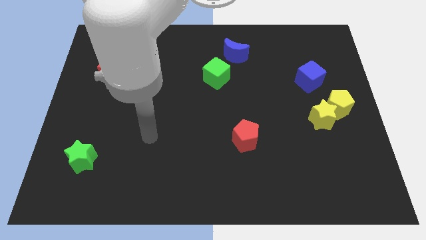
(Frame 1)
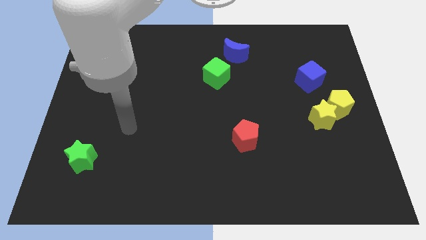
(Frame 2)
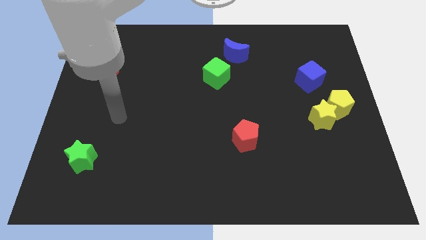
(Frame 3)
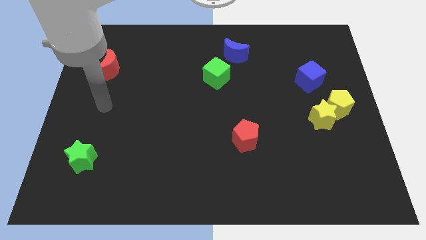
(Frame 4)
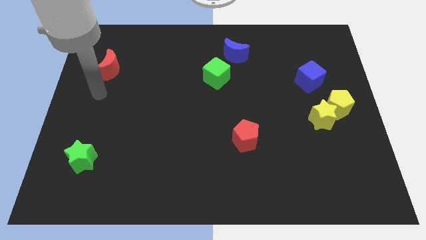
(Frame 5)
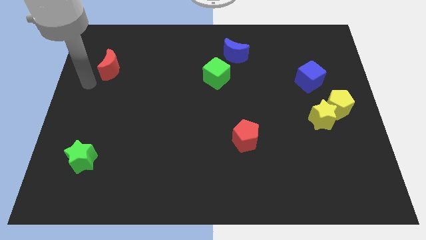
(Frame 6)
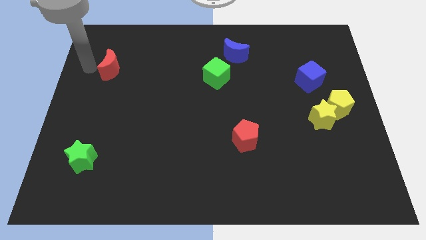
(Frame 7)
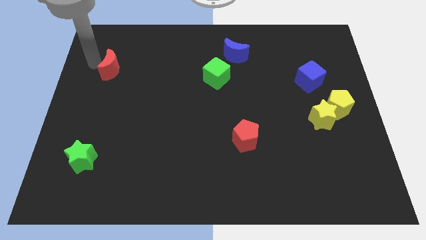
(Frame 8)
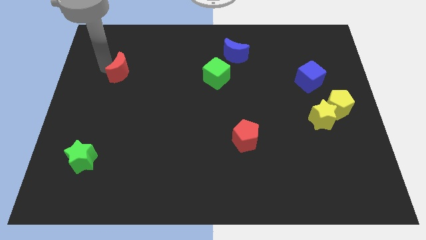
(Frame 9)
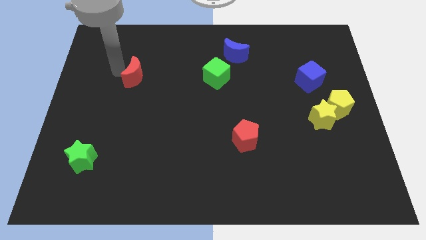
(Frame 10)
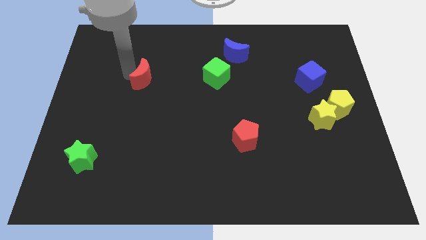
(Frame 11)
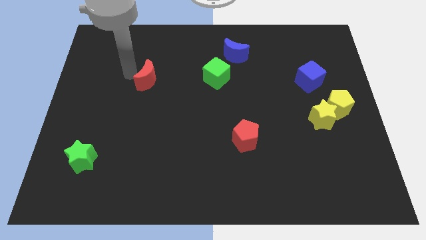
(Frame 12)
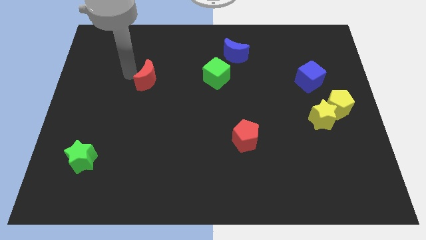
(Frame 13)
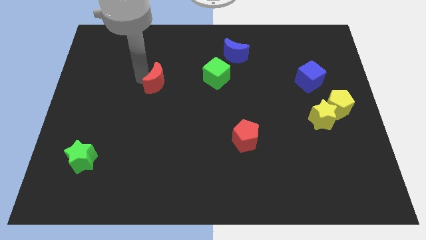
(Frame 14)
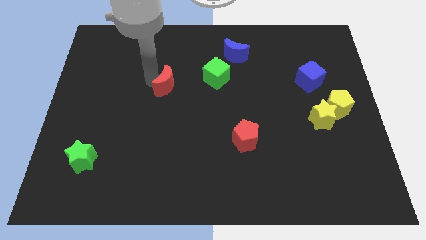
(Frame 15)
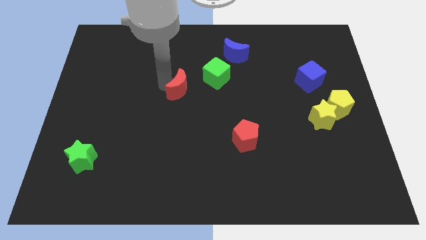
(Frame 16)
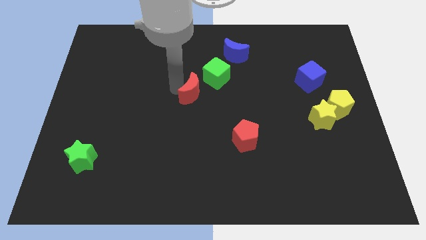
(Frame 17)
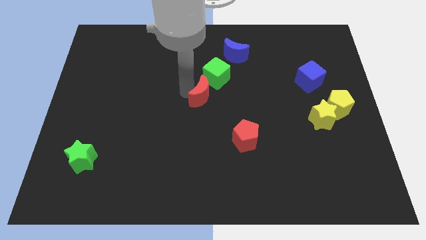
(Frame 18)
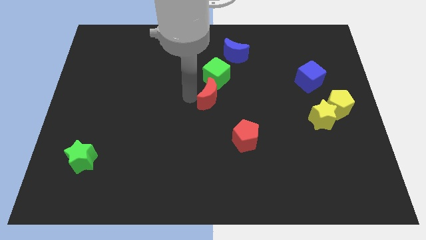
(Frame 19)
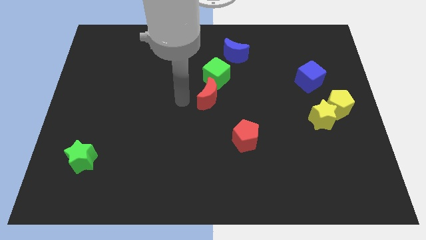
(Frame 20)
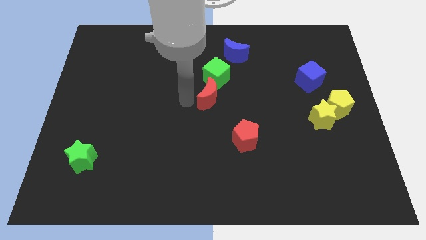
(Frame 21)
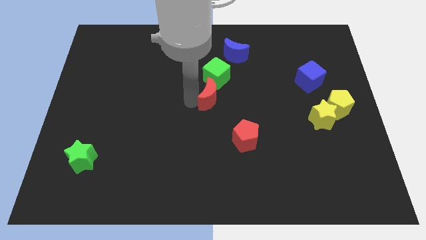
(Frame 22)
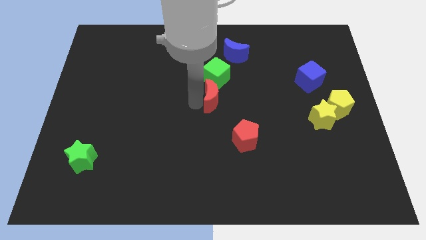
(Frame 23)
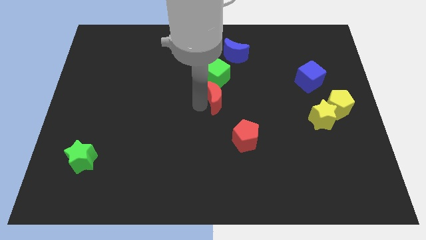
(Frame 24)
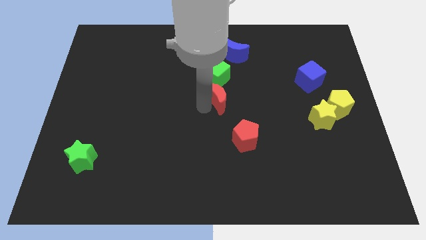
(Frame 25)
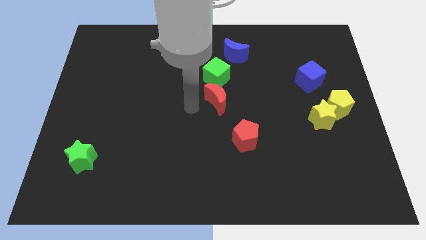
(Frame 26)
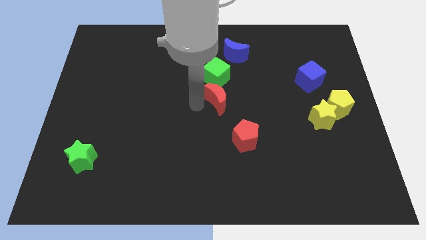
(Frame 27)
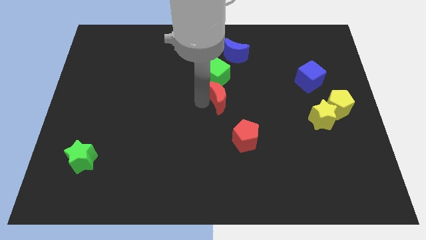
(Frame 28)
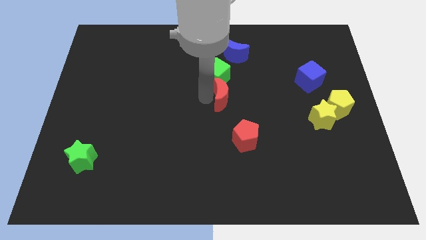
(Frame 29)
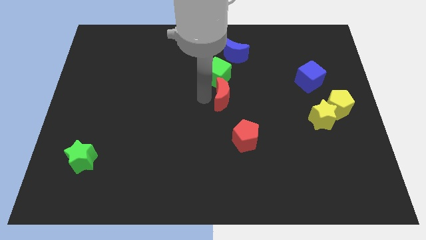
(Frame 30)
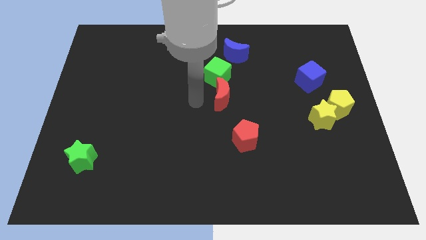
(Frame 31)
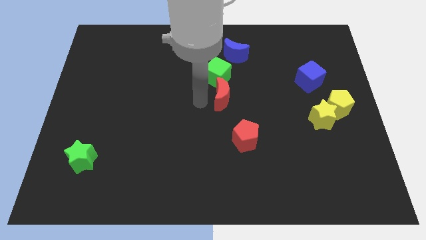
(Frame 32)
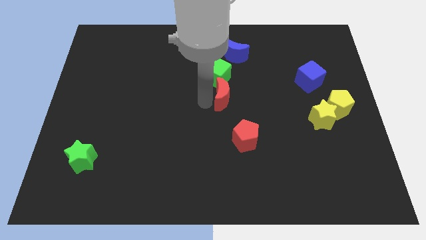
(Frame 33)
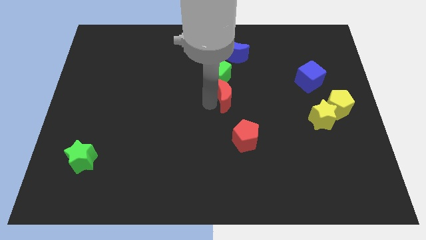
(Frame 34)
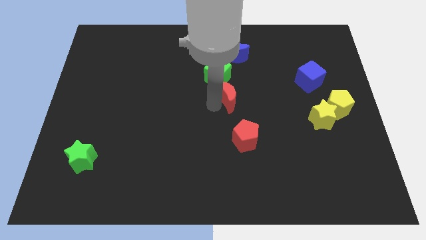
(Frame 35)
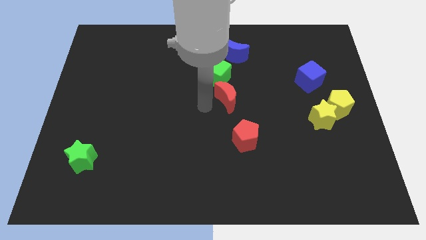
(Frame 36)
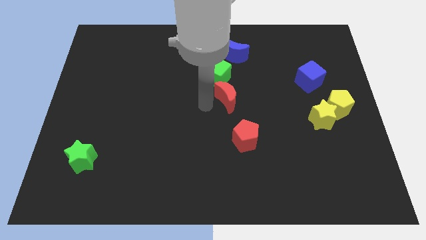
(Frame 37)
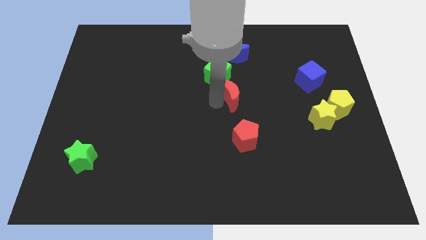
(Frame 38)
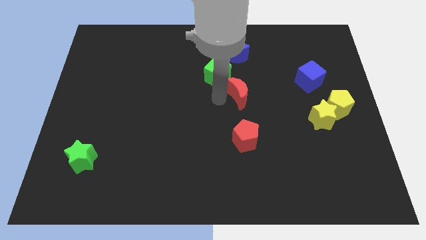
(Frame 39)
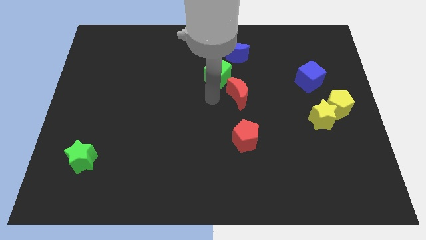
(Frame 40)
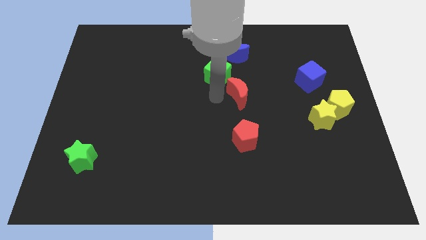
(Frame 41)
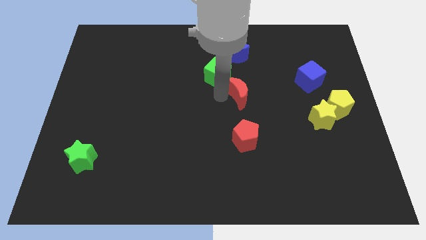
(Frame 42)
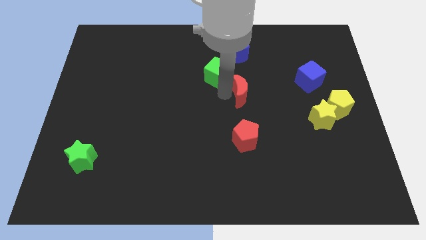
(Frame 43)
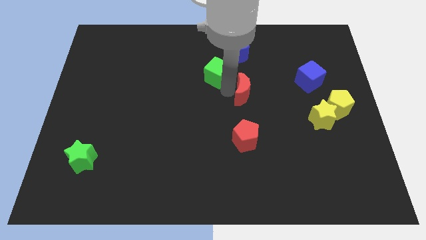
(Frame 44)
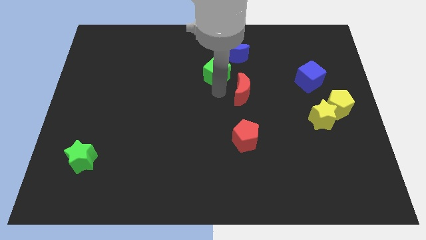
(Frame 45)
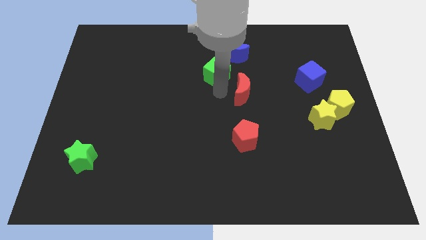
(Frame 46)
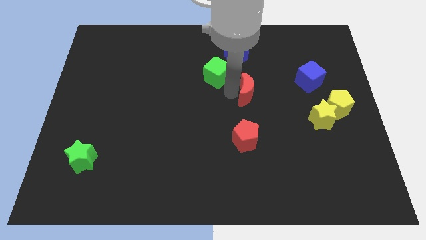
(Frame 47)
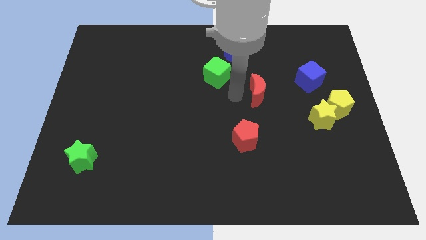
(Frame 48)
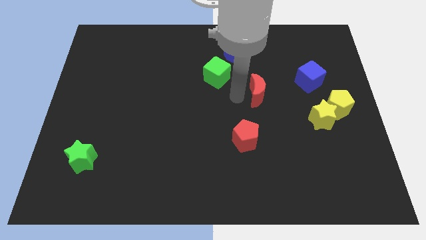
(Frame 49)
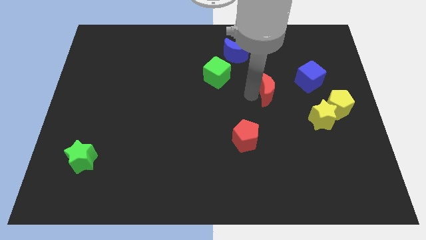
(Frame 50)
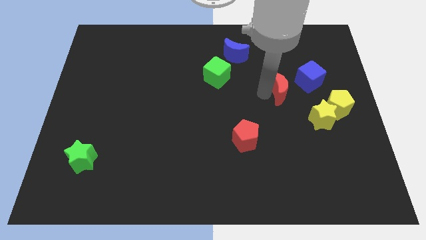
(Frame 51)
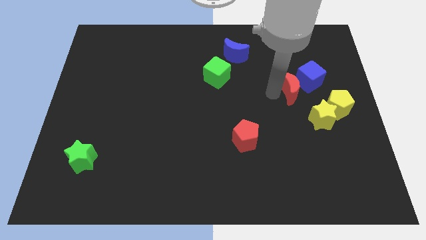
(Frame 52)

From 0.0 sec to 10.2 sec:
push the red moon towards the blue cube

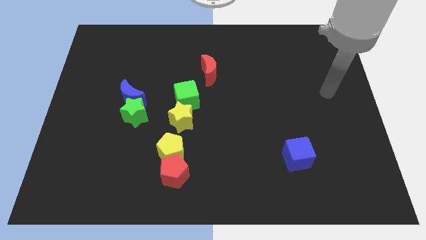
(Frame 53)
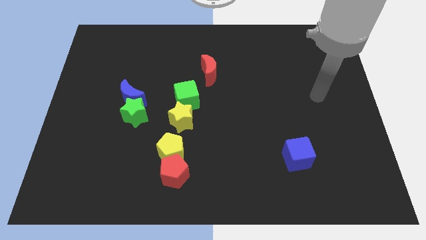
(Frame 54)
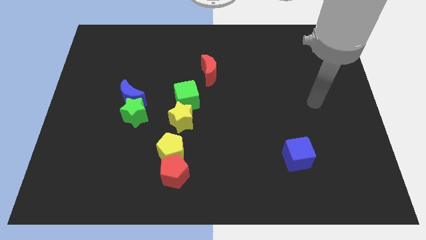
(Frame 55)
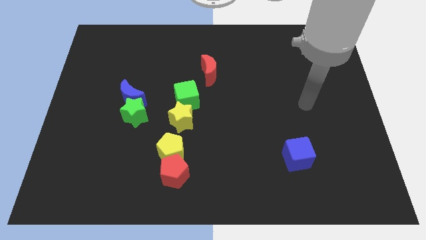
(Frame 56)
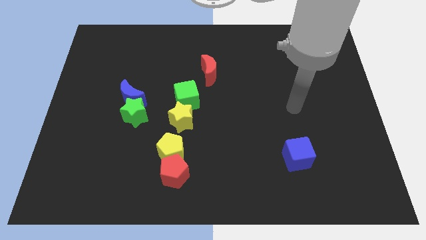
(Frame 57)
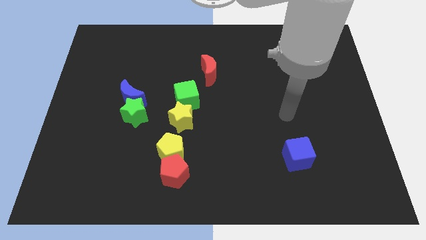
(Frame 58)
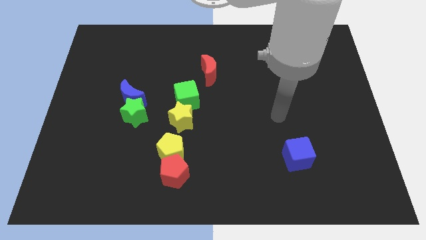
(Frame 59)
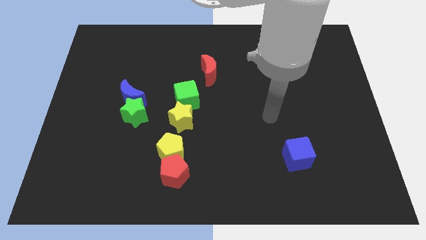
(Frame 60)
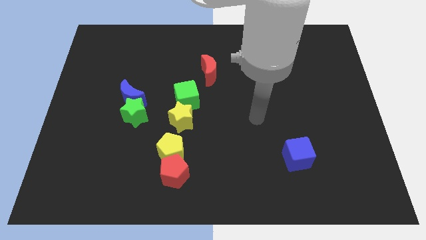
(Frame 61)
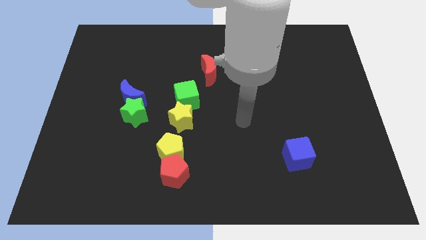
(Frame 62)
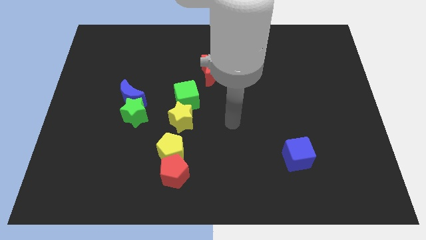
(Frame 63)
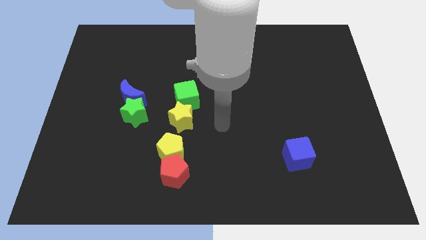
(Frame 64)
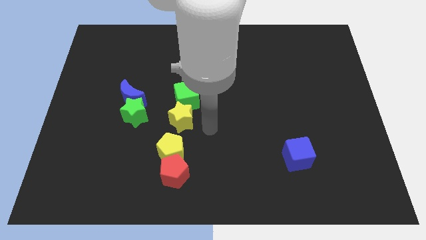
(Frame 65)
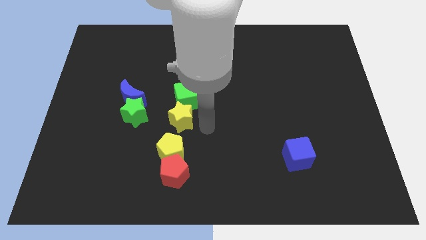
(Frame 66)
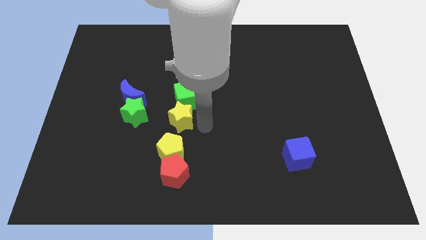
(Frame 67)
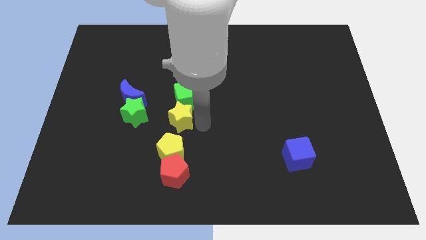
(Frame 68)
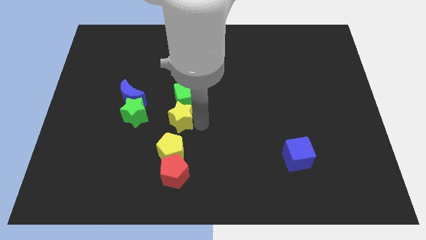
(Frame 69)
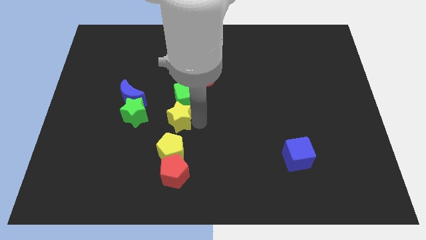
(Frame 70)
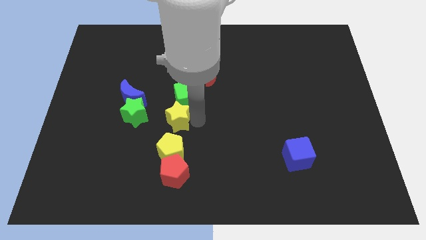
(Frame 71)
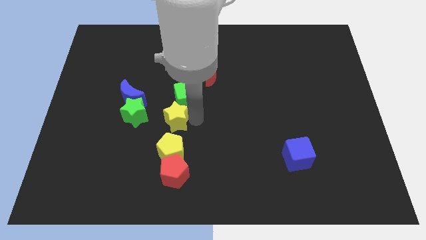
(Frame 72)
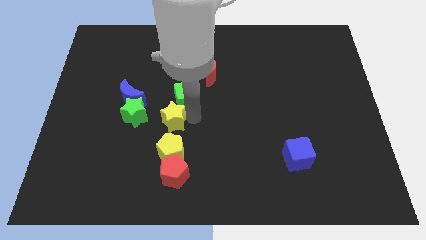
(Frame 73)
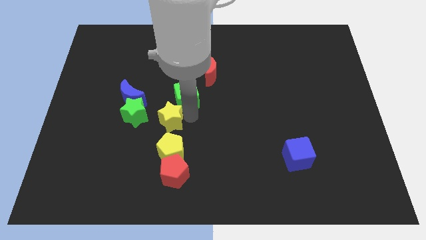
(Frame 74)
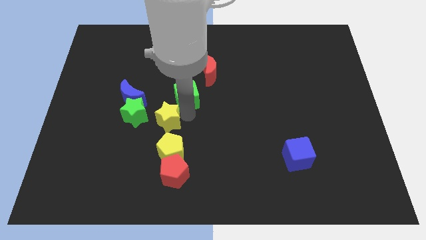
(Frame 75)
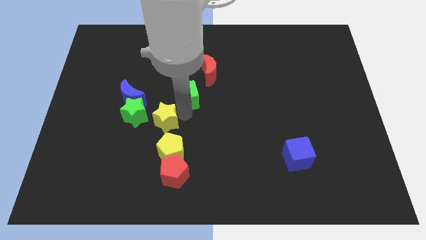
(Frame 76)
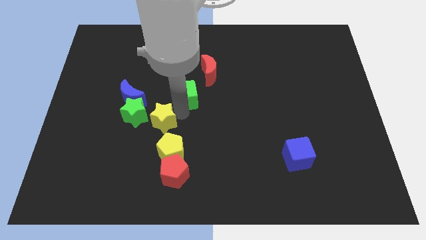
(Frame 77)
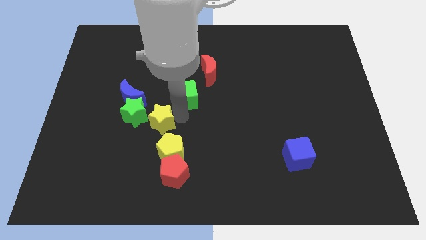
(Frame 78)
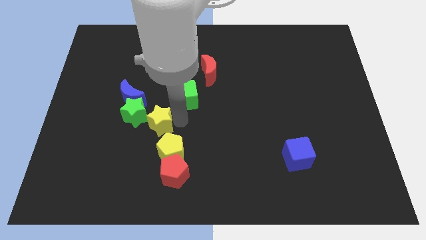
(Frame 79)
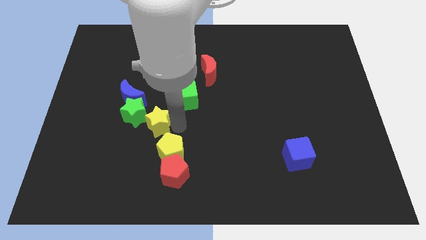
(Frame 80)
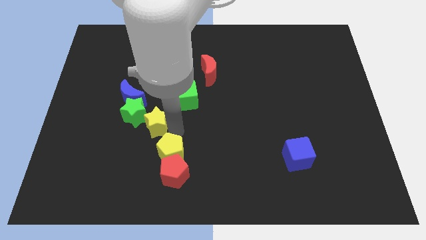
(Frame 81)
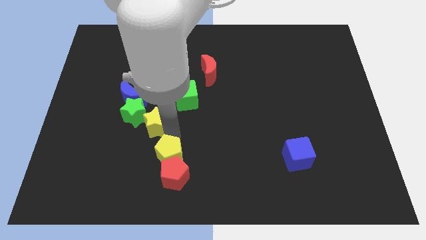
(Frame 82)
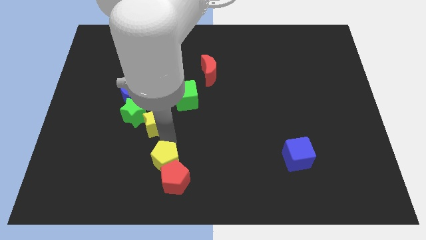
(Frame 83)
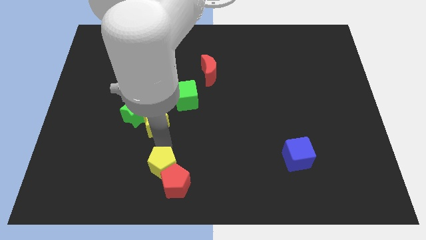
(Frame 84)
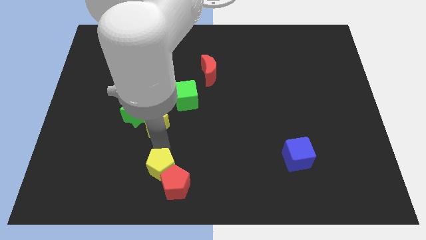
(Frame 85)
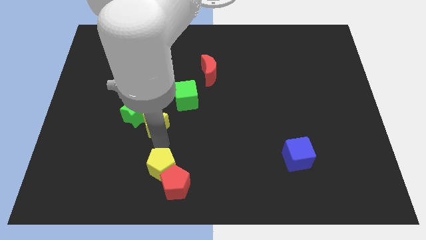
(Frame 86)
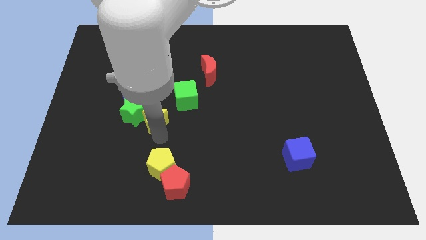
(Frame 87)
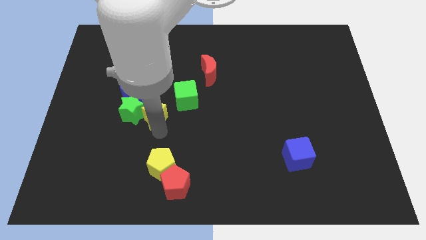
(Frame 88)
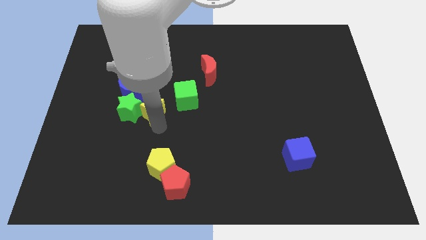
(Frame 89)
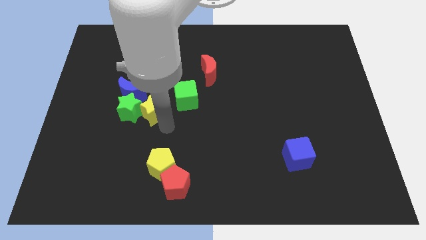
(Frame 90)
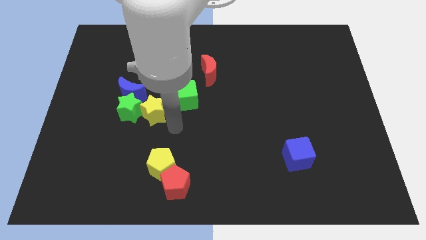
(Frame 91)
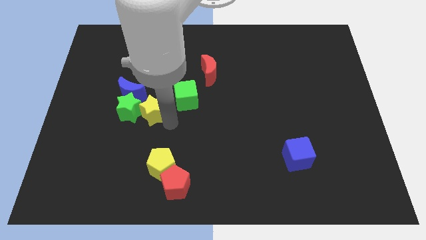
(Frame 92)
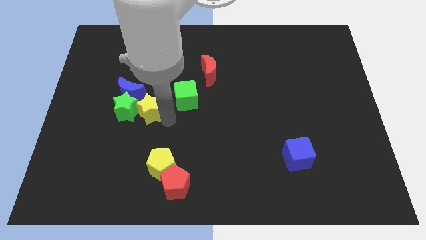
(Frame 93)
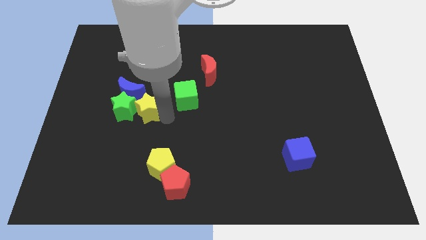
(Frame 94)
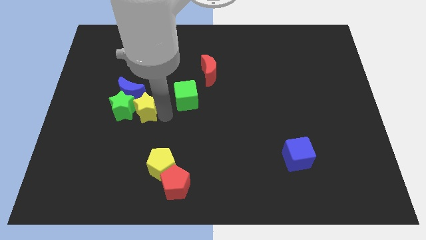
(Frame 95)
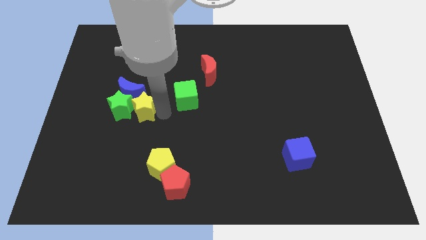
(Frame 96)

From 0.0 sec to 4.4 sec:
put the yellow star to the blue moon
